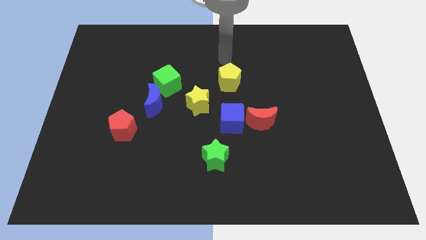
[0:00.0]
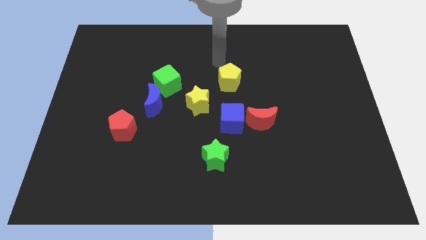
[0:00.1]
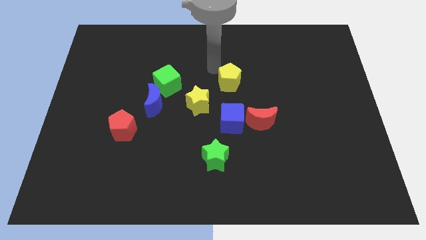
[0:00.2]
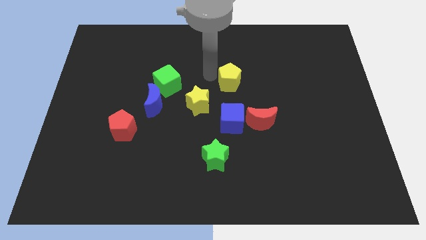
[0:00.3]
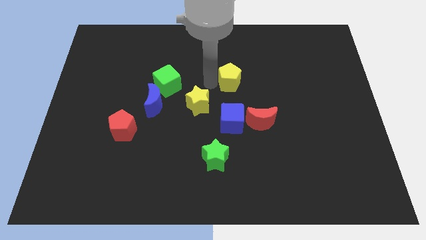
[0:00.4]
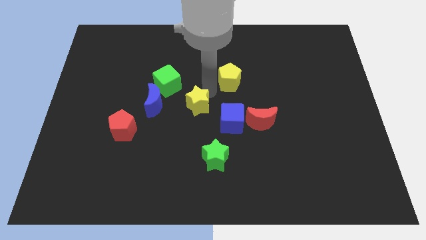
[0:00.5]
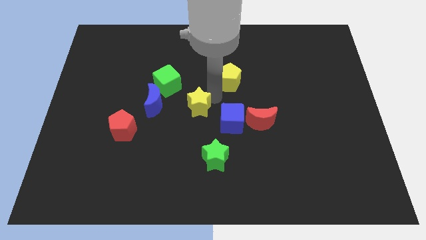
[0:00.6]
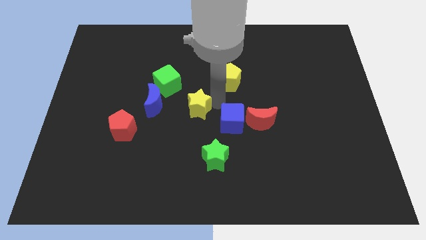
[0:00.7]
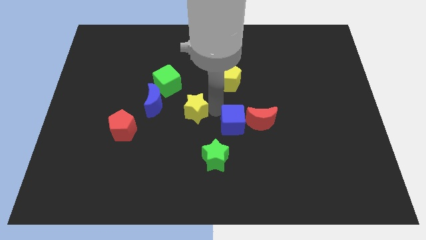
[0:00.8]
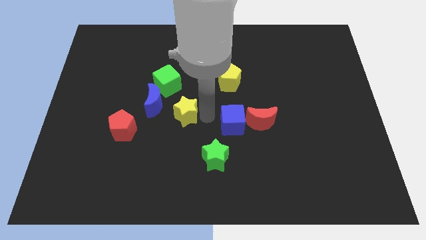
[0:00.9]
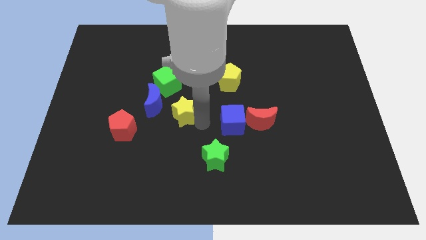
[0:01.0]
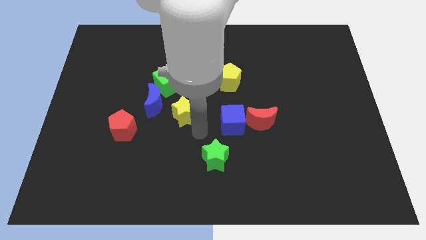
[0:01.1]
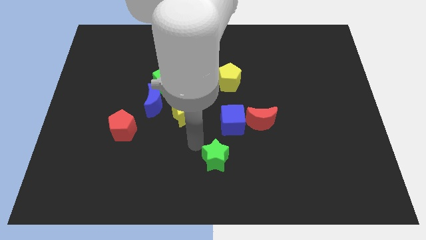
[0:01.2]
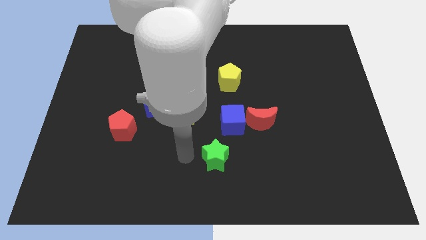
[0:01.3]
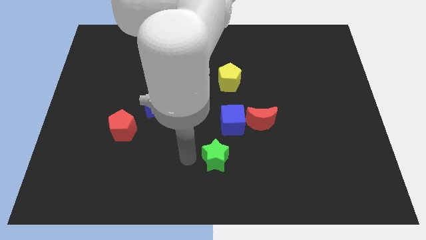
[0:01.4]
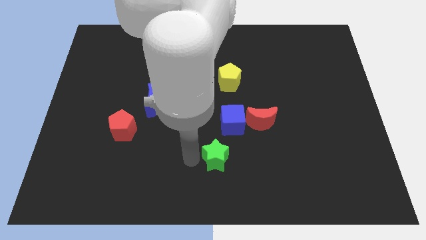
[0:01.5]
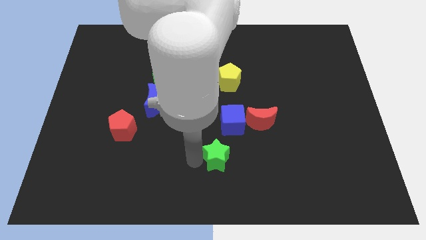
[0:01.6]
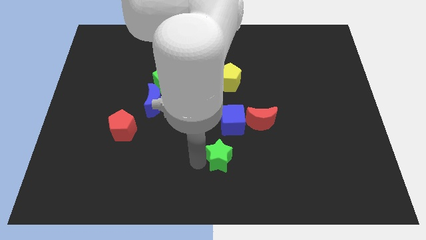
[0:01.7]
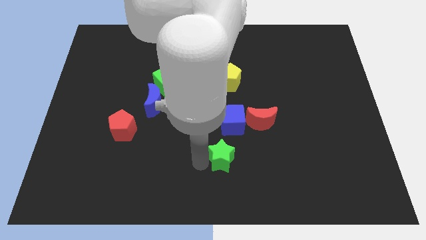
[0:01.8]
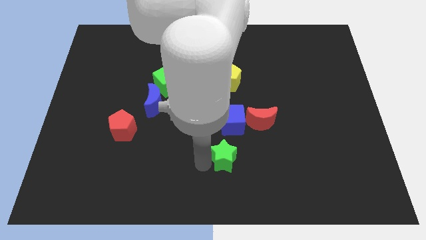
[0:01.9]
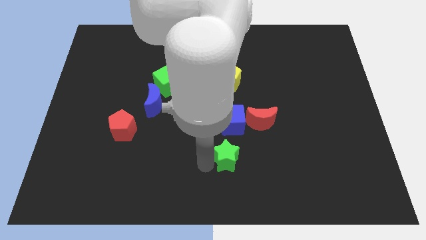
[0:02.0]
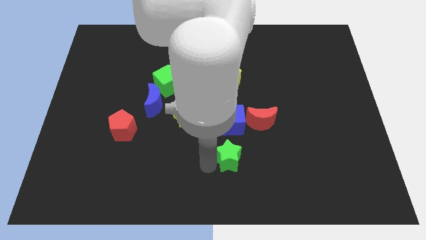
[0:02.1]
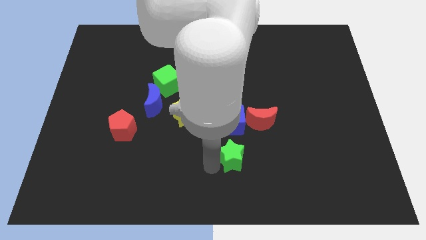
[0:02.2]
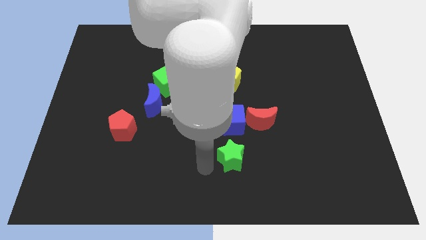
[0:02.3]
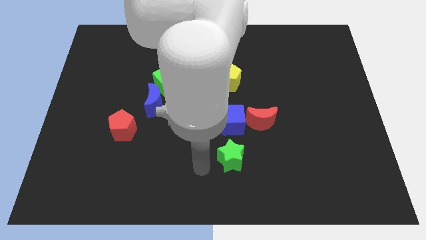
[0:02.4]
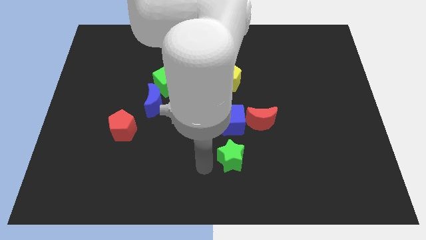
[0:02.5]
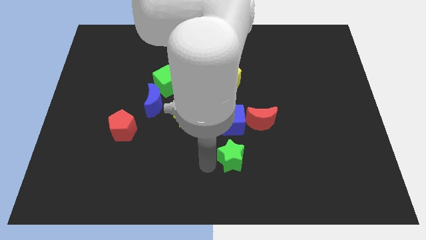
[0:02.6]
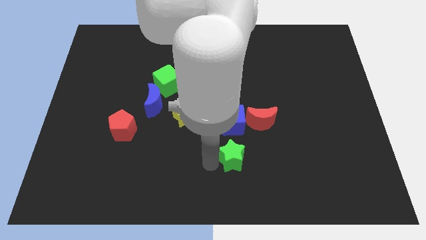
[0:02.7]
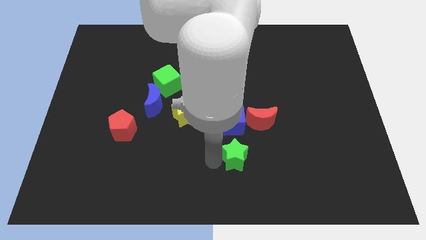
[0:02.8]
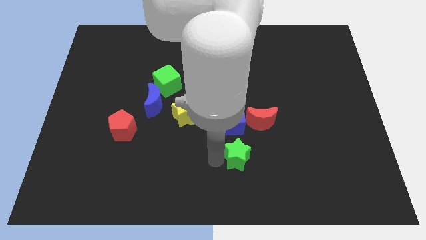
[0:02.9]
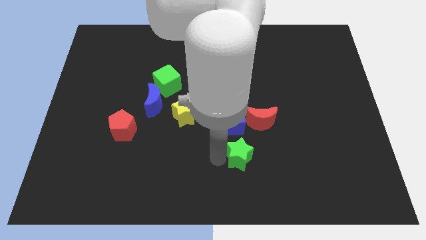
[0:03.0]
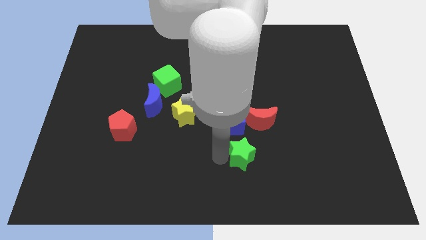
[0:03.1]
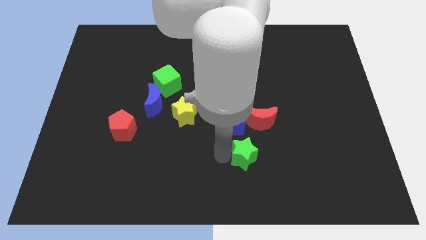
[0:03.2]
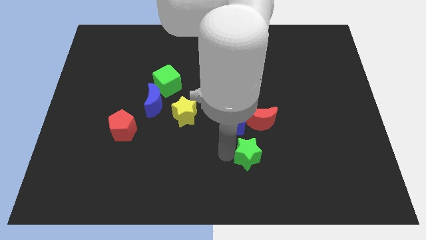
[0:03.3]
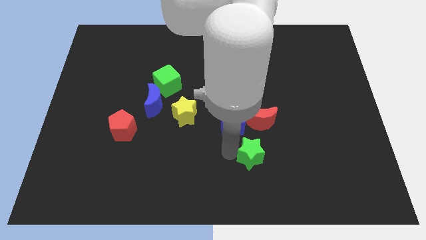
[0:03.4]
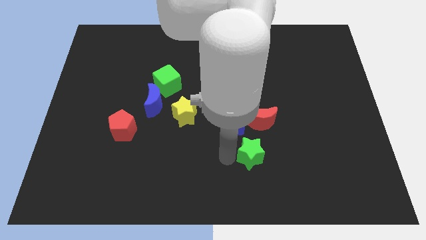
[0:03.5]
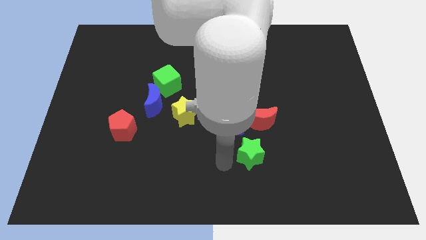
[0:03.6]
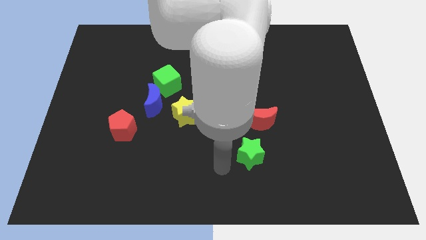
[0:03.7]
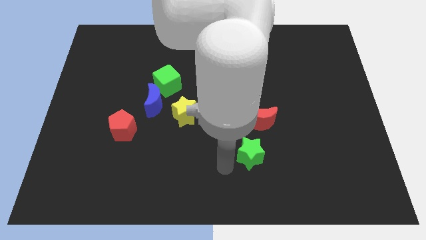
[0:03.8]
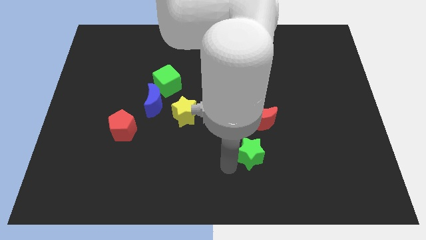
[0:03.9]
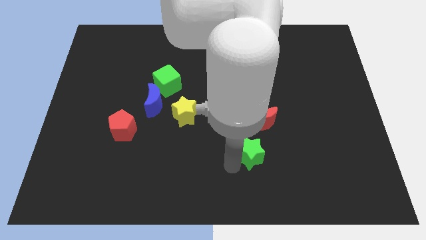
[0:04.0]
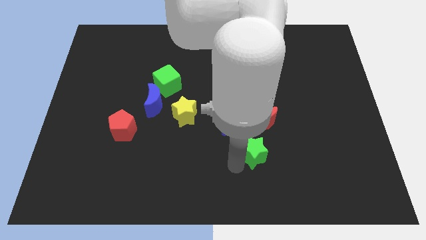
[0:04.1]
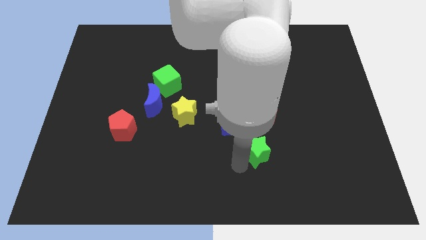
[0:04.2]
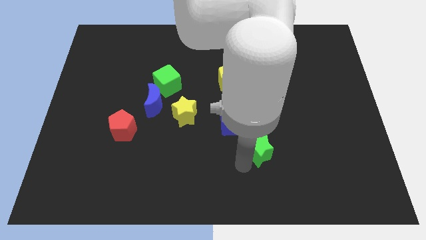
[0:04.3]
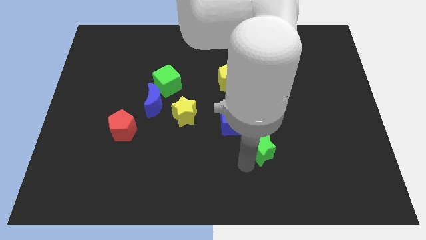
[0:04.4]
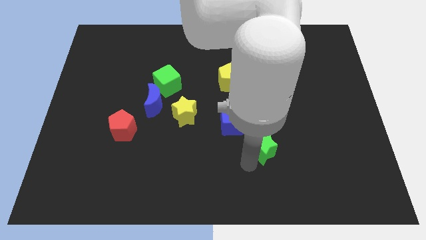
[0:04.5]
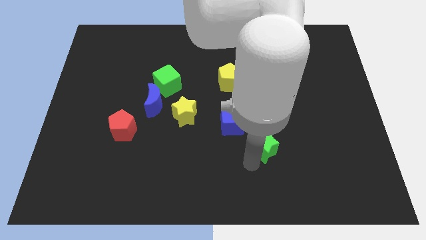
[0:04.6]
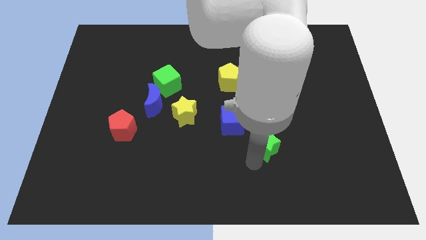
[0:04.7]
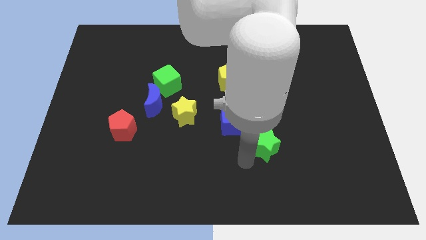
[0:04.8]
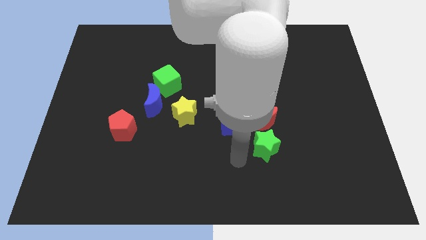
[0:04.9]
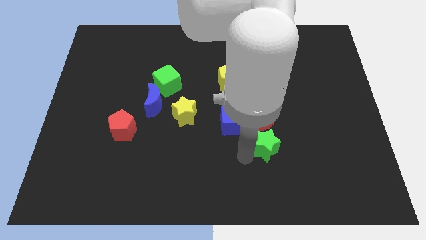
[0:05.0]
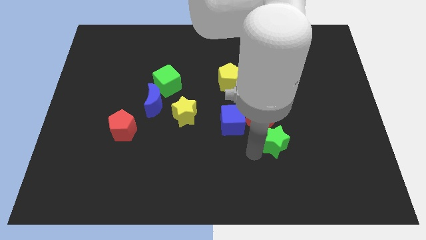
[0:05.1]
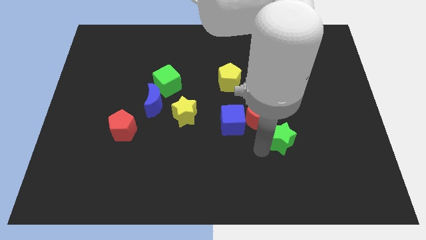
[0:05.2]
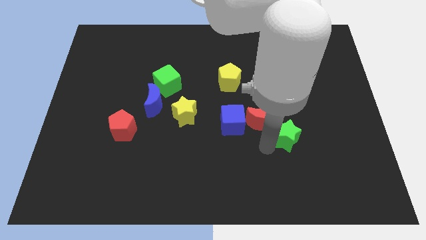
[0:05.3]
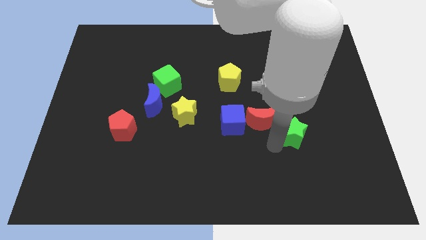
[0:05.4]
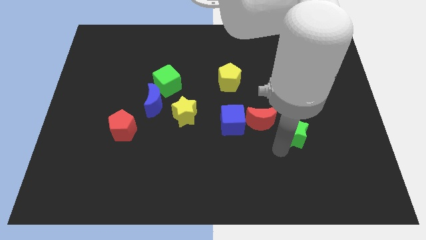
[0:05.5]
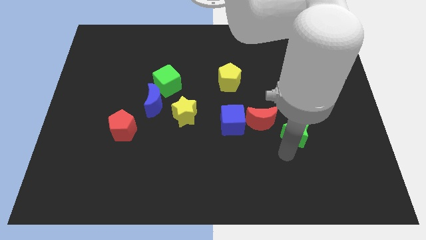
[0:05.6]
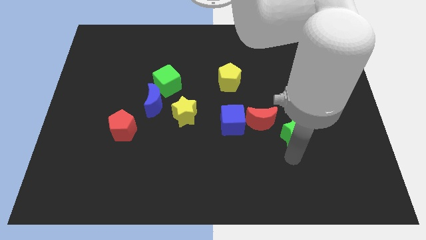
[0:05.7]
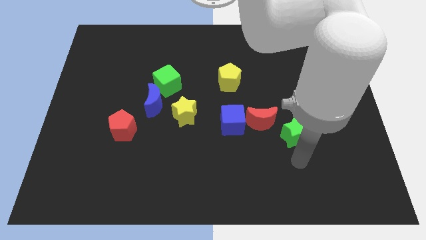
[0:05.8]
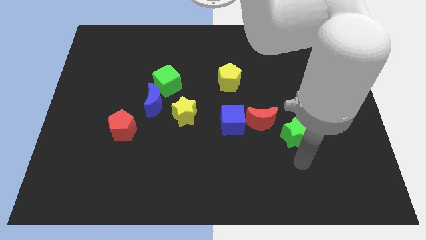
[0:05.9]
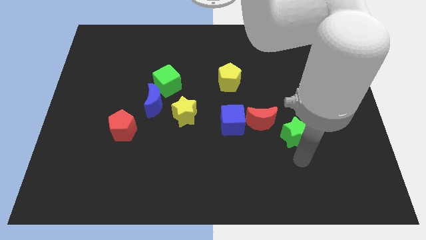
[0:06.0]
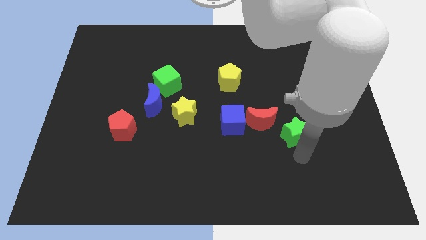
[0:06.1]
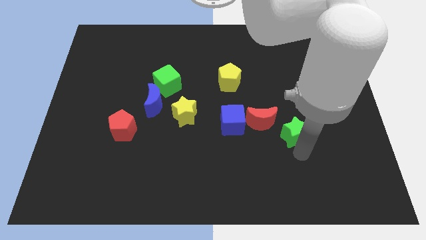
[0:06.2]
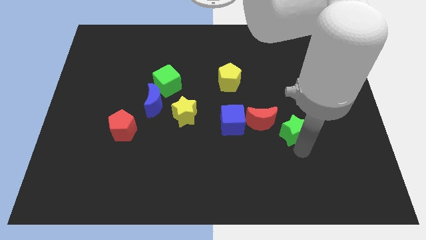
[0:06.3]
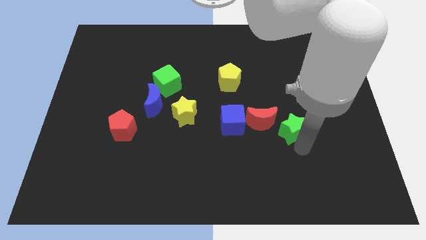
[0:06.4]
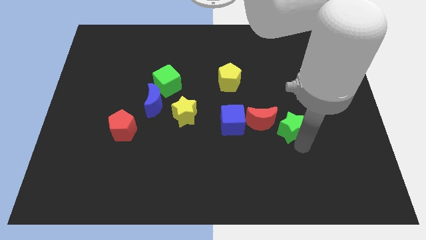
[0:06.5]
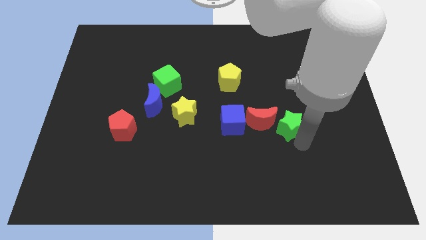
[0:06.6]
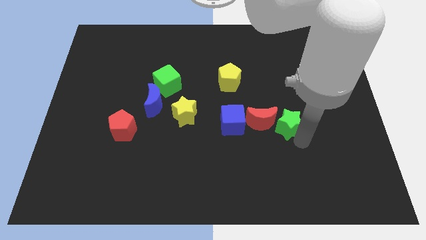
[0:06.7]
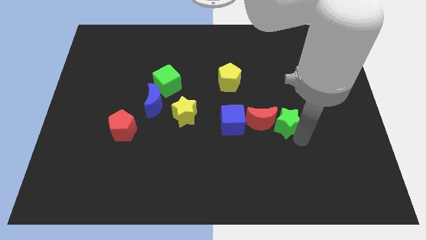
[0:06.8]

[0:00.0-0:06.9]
slide the green star to the top right side of the red moon

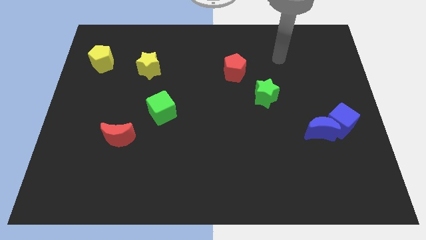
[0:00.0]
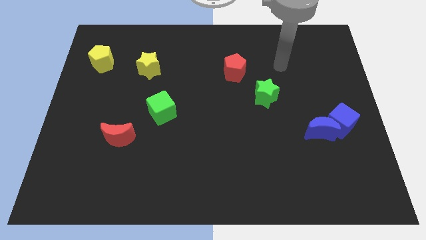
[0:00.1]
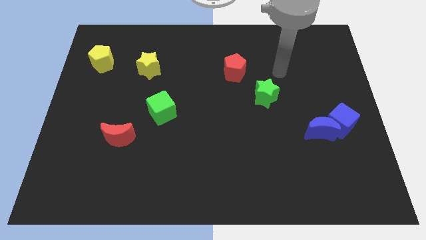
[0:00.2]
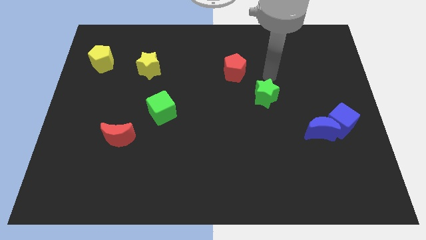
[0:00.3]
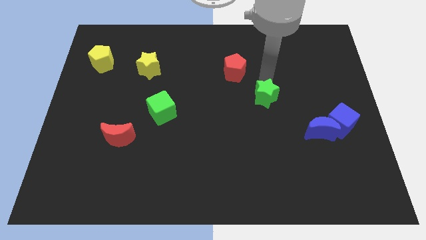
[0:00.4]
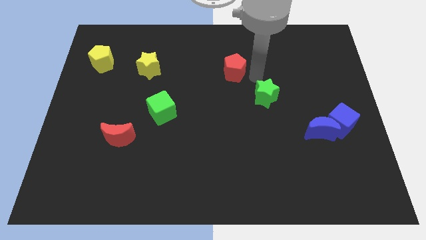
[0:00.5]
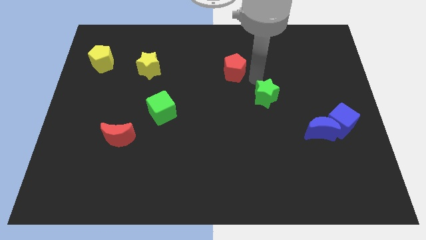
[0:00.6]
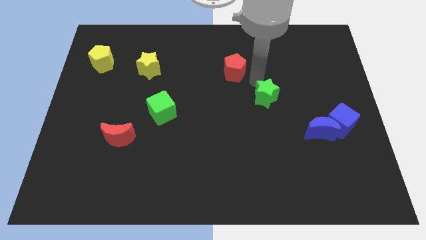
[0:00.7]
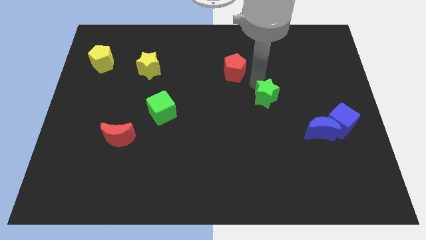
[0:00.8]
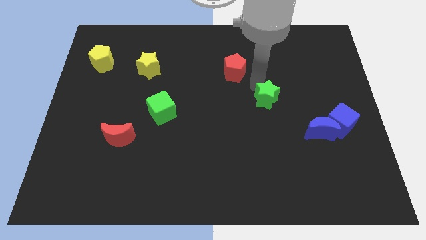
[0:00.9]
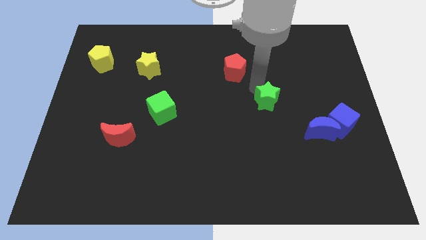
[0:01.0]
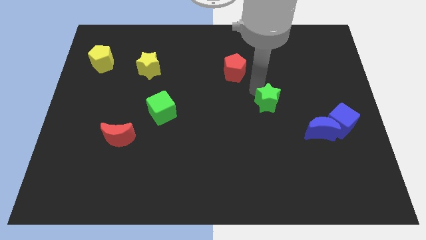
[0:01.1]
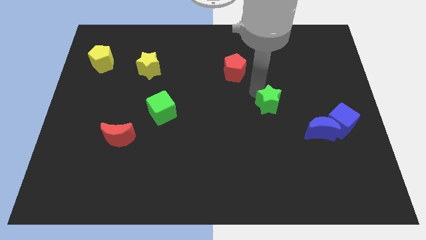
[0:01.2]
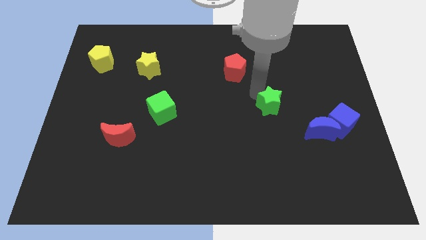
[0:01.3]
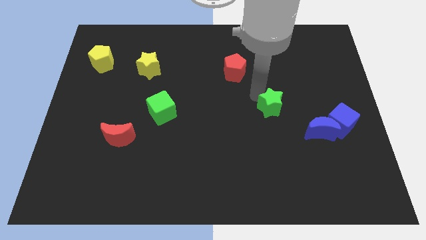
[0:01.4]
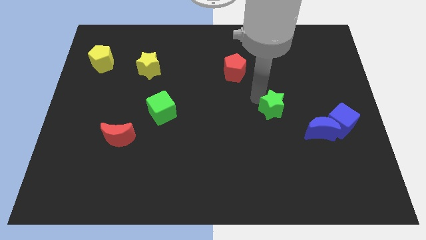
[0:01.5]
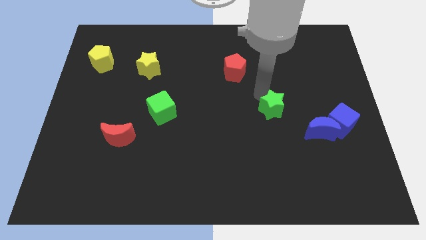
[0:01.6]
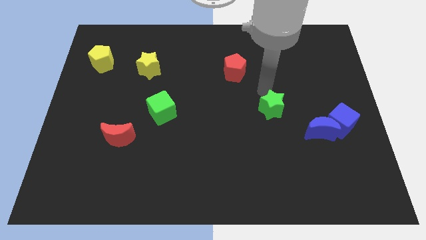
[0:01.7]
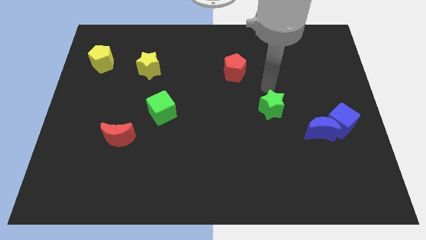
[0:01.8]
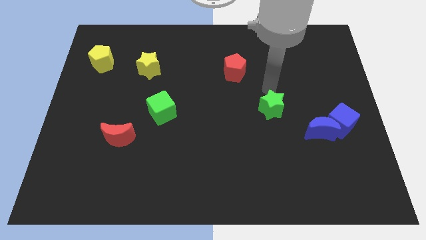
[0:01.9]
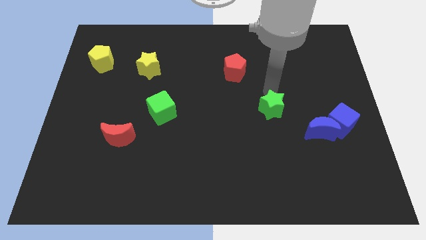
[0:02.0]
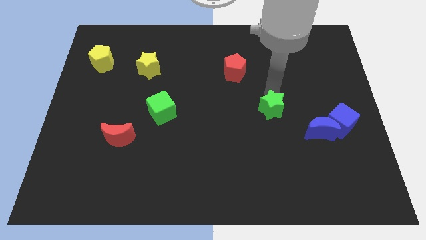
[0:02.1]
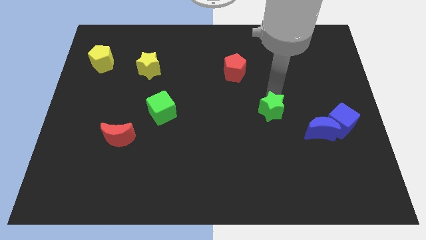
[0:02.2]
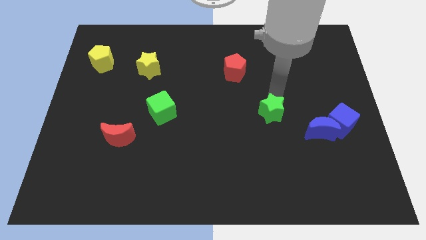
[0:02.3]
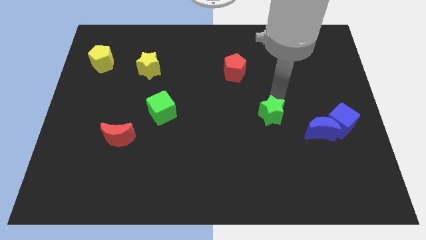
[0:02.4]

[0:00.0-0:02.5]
slide the green star to the left of the blue moon
